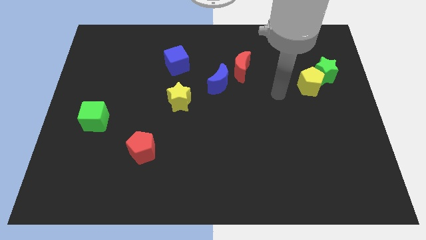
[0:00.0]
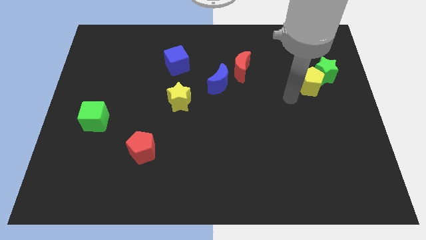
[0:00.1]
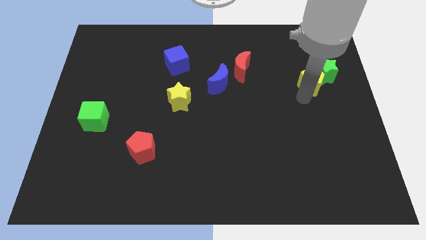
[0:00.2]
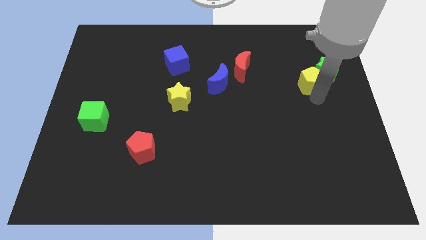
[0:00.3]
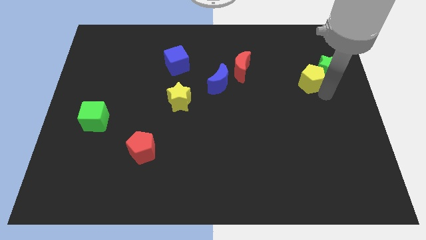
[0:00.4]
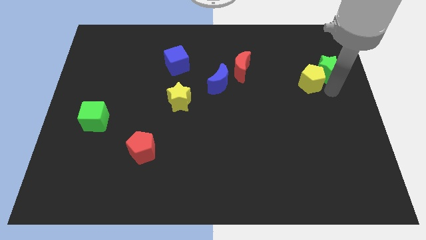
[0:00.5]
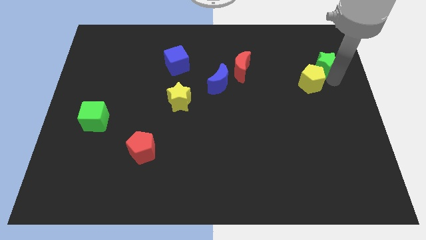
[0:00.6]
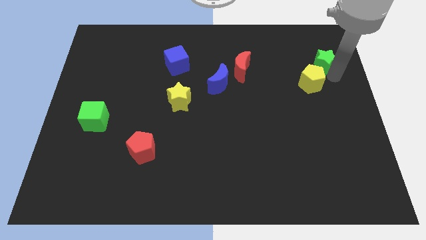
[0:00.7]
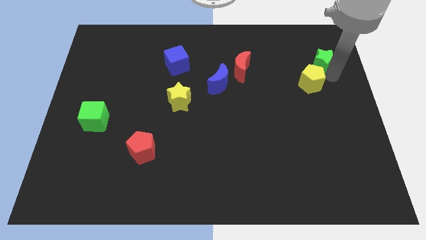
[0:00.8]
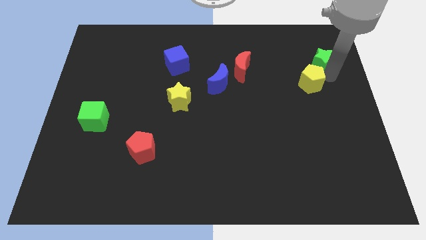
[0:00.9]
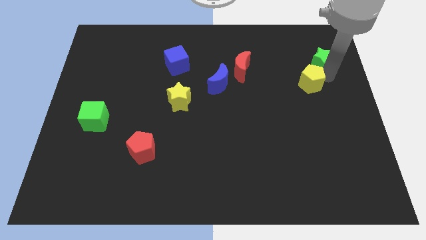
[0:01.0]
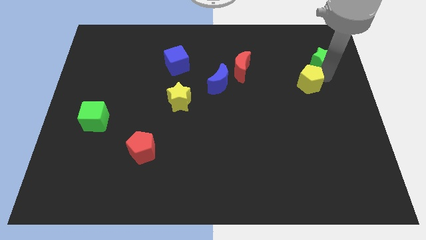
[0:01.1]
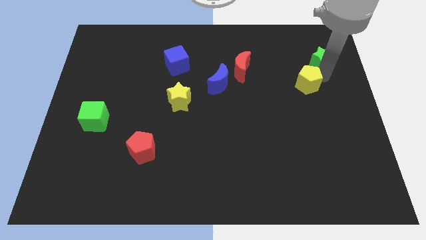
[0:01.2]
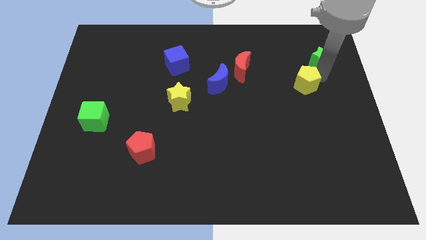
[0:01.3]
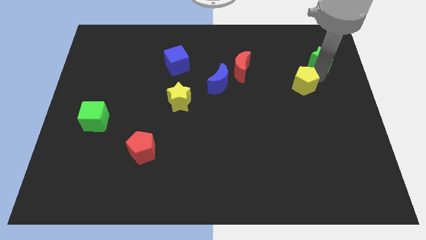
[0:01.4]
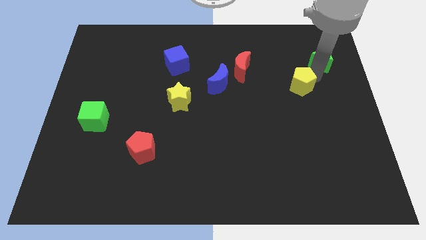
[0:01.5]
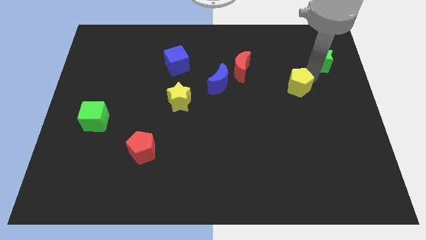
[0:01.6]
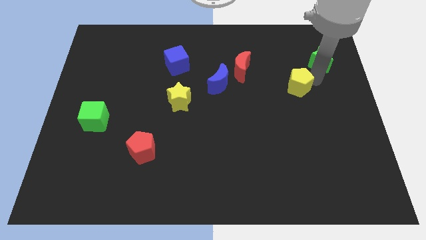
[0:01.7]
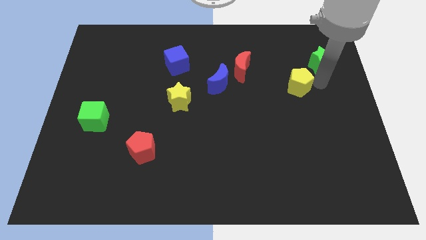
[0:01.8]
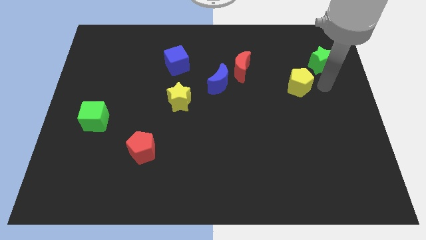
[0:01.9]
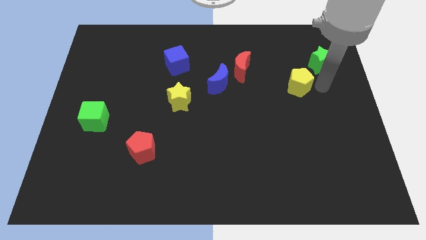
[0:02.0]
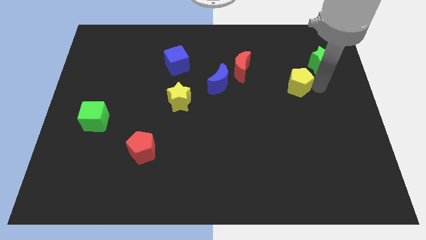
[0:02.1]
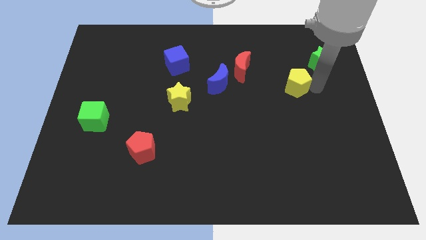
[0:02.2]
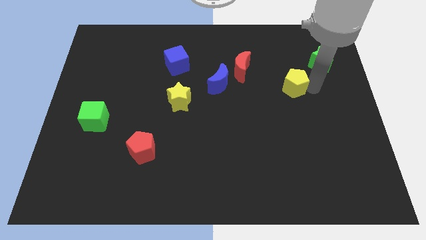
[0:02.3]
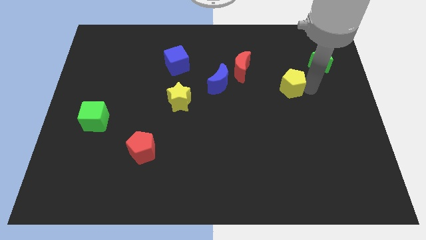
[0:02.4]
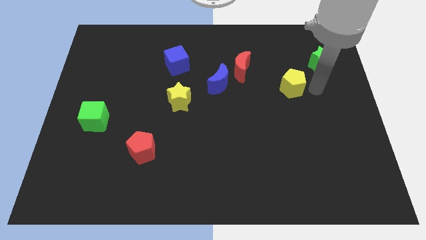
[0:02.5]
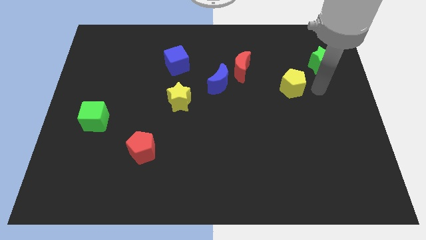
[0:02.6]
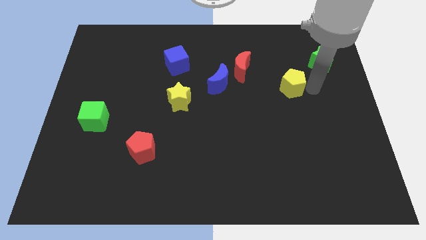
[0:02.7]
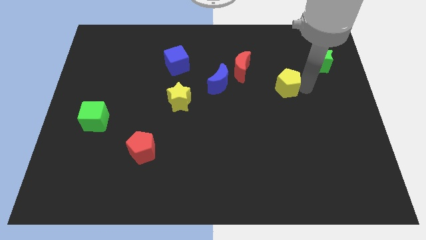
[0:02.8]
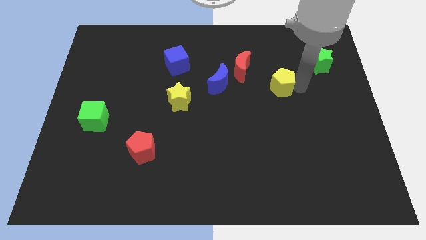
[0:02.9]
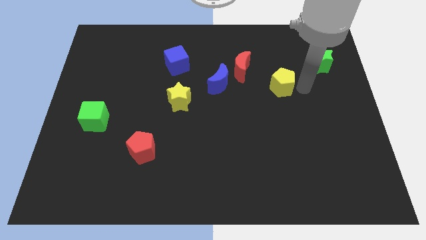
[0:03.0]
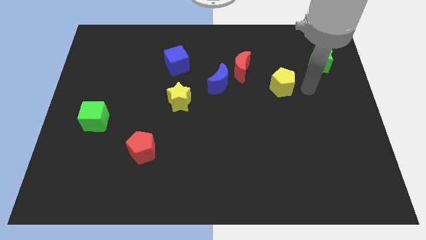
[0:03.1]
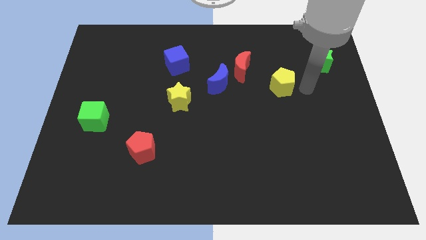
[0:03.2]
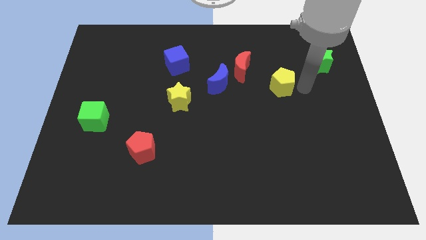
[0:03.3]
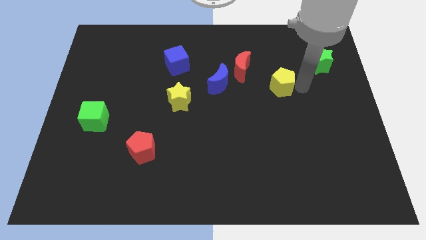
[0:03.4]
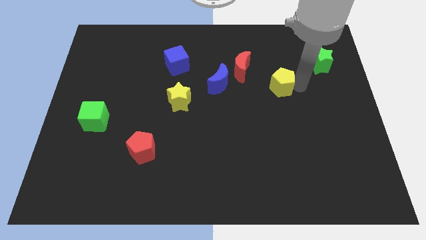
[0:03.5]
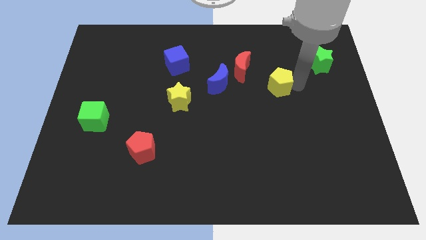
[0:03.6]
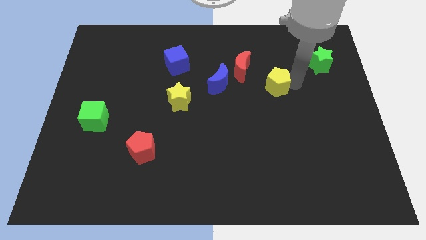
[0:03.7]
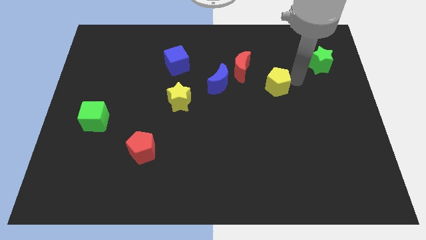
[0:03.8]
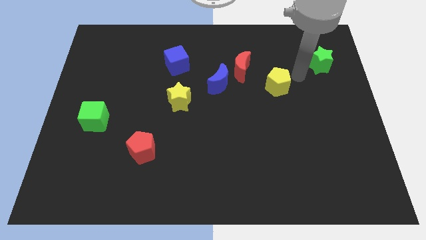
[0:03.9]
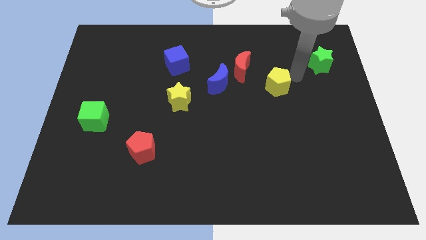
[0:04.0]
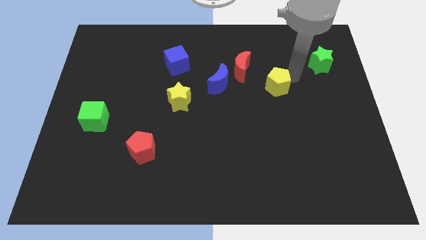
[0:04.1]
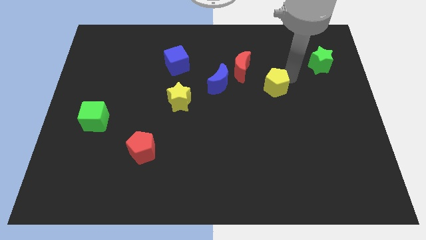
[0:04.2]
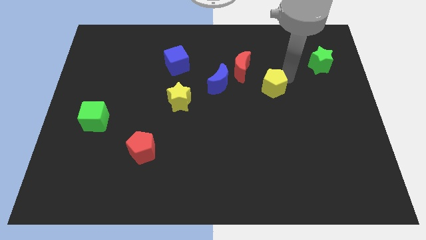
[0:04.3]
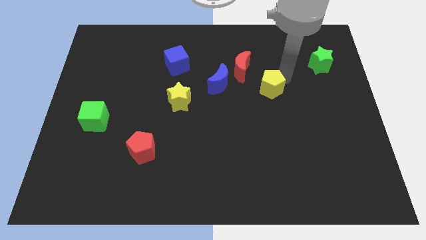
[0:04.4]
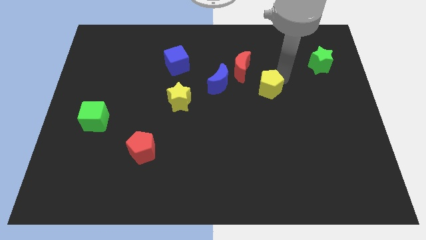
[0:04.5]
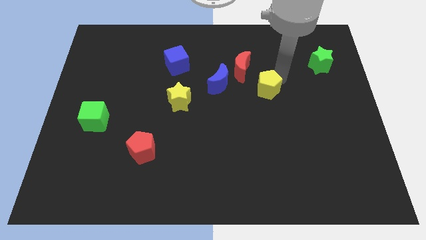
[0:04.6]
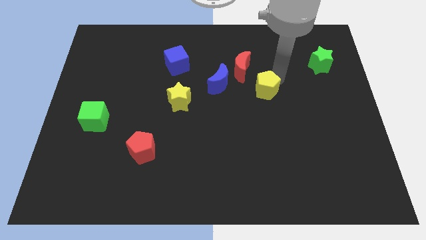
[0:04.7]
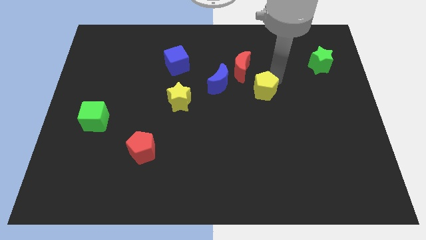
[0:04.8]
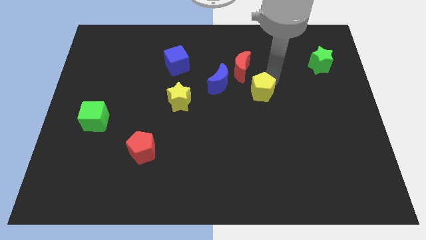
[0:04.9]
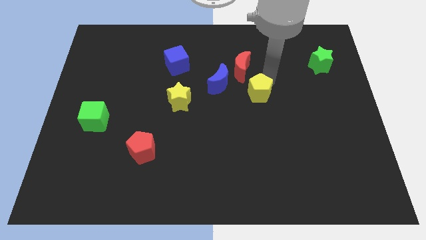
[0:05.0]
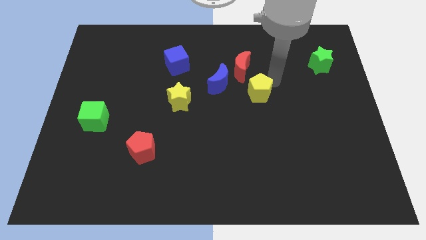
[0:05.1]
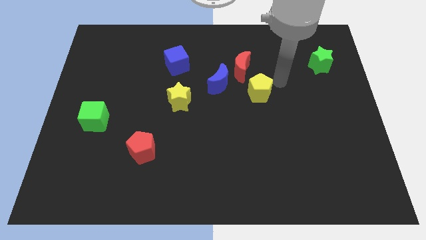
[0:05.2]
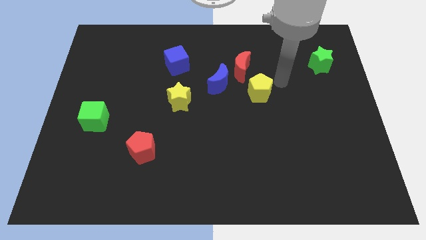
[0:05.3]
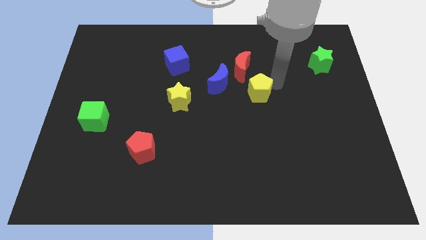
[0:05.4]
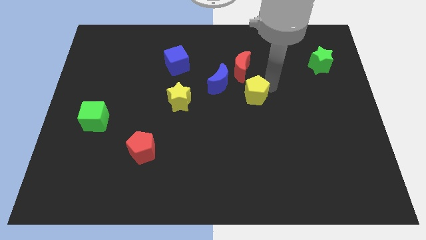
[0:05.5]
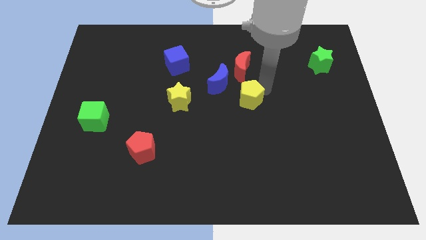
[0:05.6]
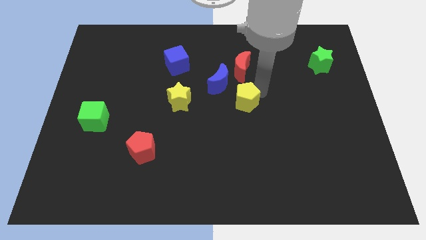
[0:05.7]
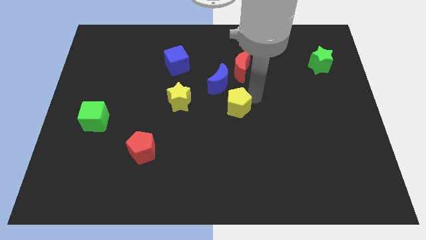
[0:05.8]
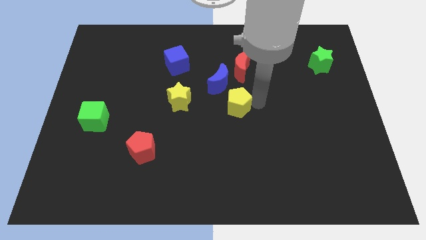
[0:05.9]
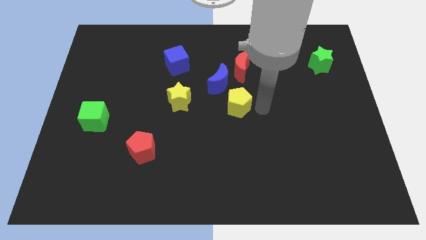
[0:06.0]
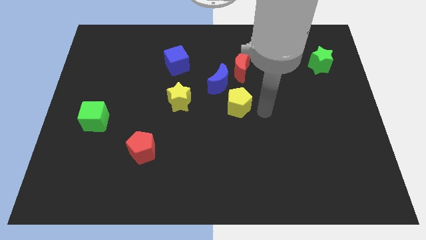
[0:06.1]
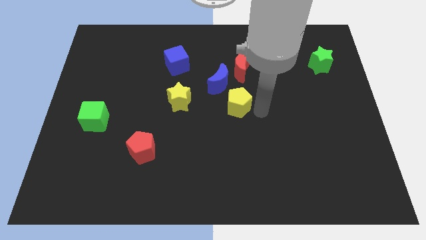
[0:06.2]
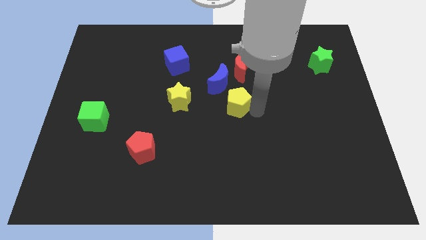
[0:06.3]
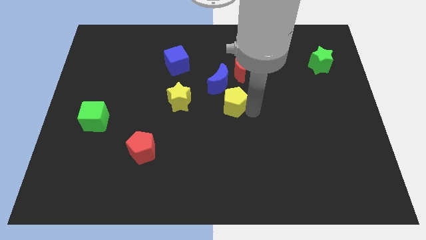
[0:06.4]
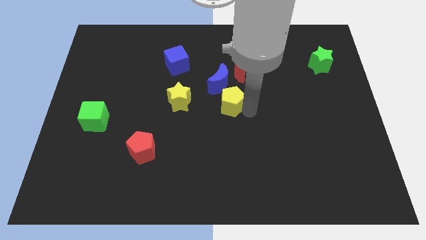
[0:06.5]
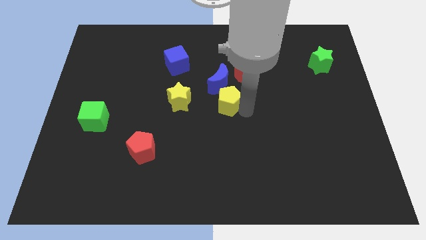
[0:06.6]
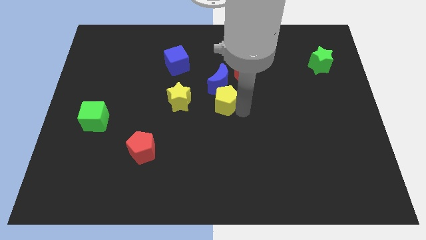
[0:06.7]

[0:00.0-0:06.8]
move the yellow pentagon left

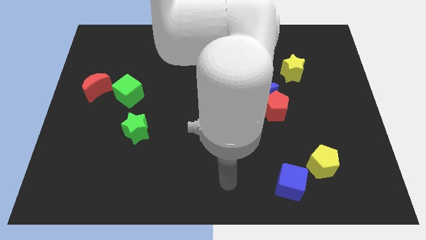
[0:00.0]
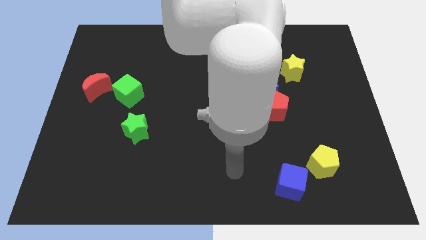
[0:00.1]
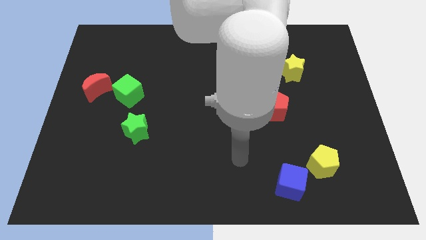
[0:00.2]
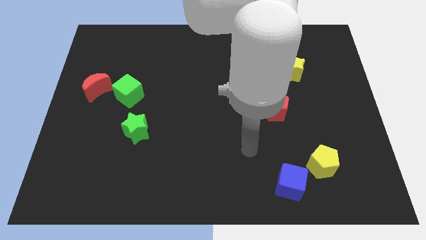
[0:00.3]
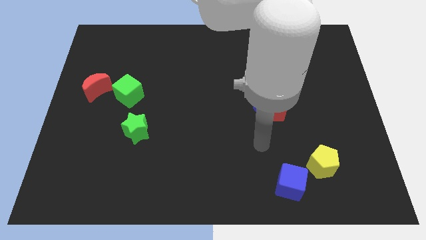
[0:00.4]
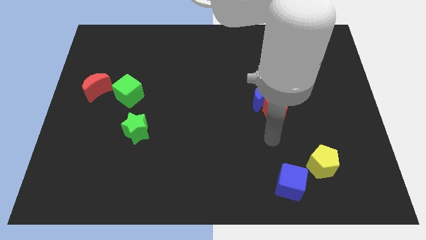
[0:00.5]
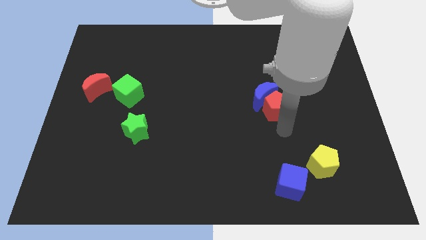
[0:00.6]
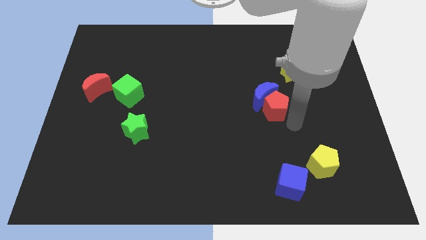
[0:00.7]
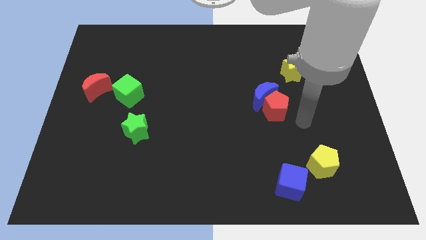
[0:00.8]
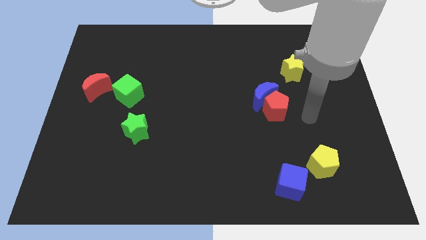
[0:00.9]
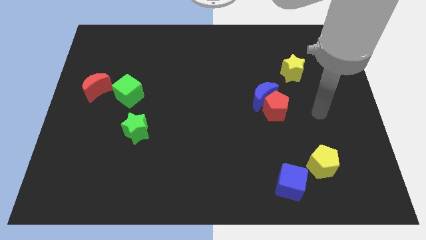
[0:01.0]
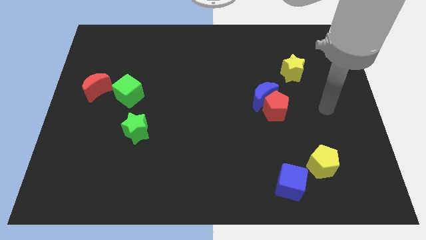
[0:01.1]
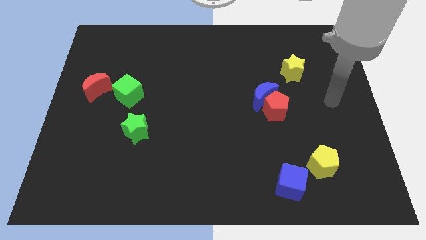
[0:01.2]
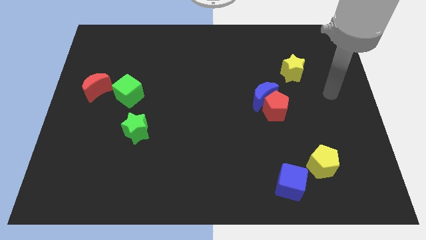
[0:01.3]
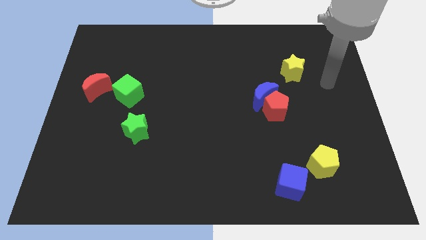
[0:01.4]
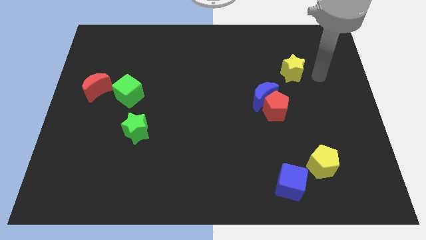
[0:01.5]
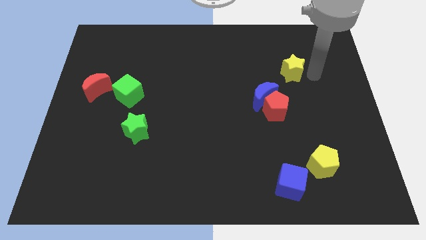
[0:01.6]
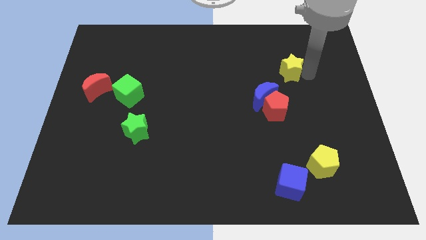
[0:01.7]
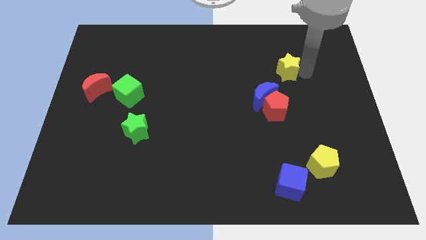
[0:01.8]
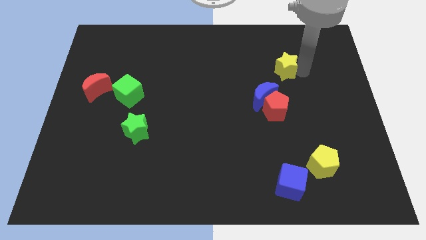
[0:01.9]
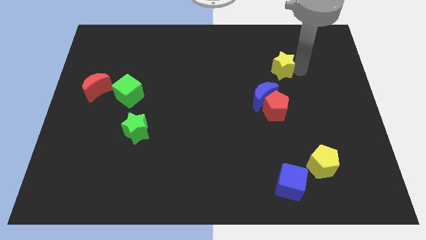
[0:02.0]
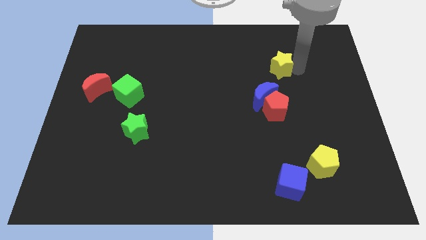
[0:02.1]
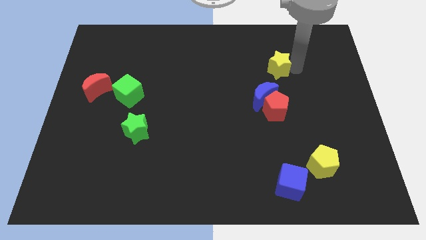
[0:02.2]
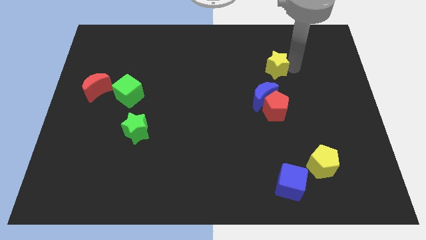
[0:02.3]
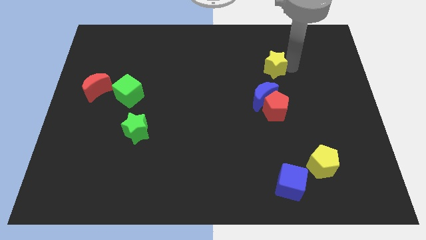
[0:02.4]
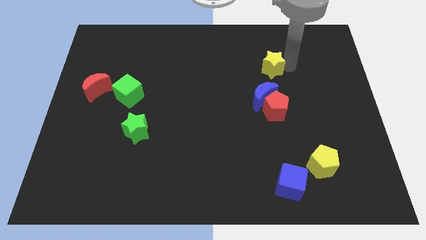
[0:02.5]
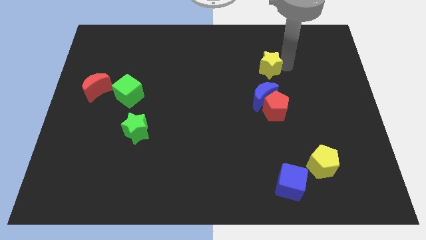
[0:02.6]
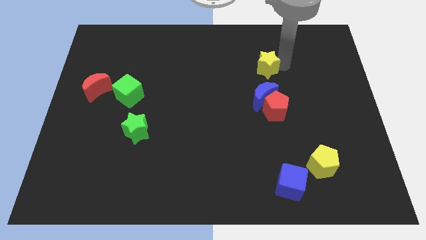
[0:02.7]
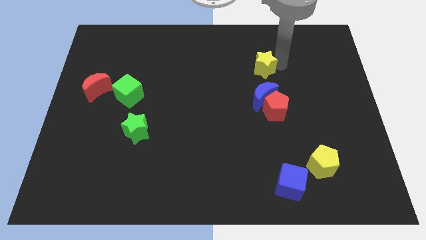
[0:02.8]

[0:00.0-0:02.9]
slightly push the yellow star left
